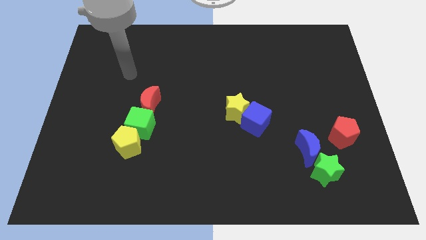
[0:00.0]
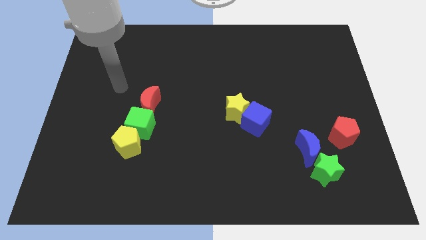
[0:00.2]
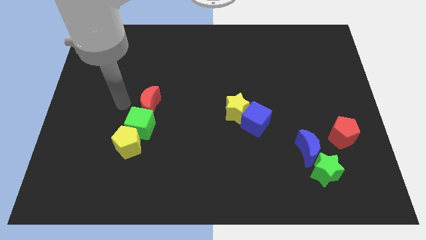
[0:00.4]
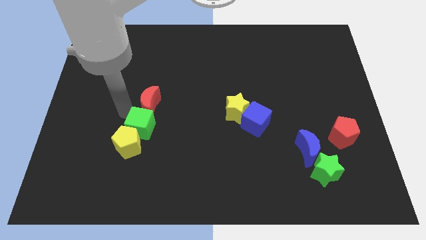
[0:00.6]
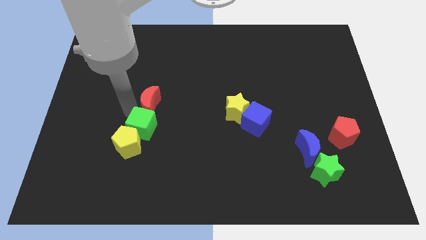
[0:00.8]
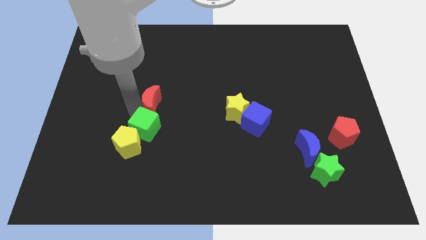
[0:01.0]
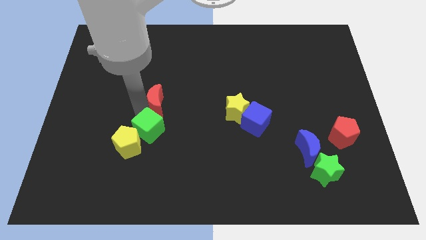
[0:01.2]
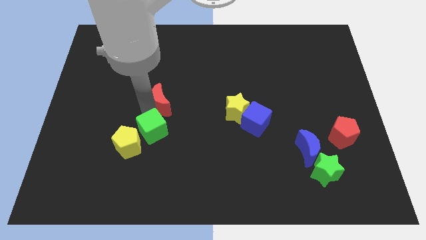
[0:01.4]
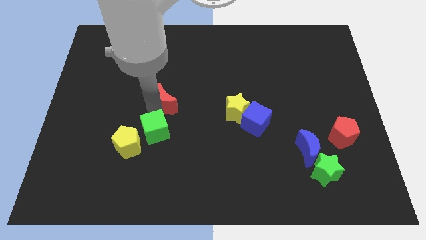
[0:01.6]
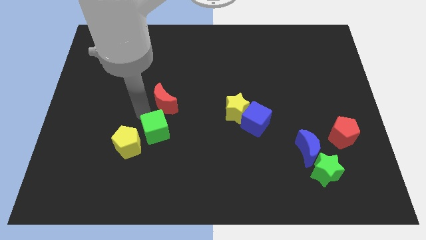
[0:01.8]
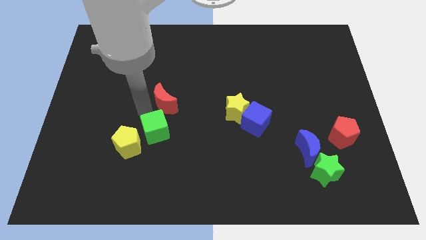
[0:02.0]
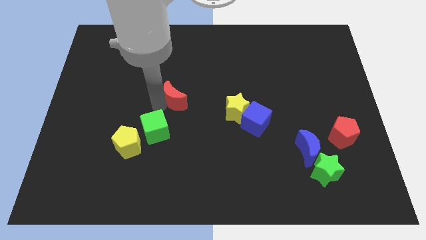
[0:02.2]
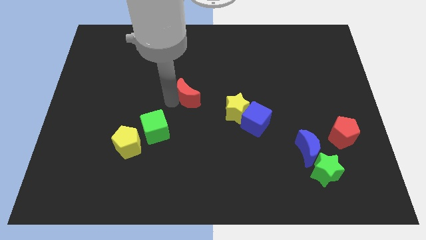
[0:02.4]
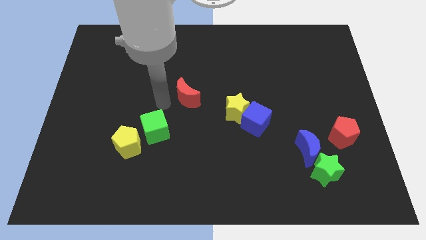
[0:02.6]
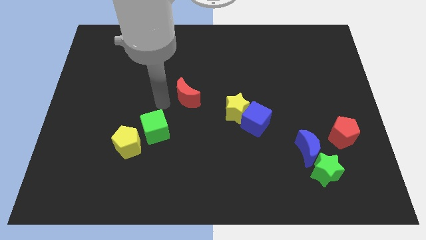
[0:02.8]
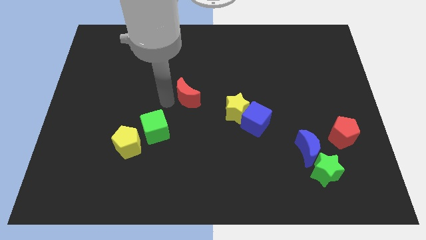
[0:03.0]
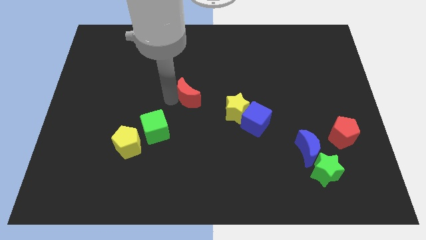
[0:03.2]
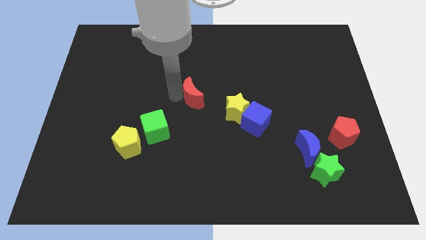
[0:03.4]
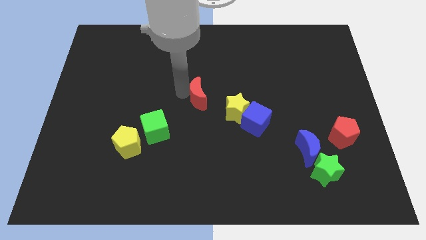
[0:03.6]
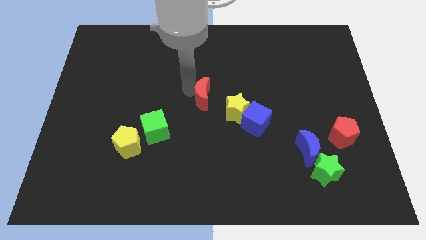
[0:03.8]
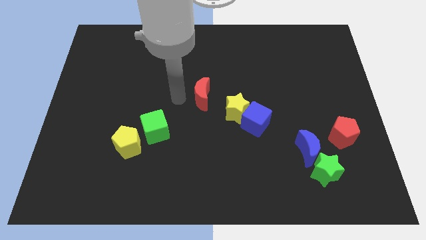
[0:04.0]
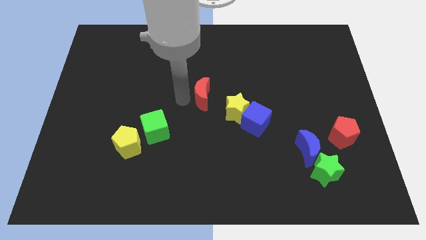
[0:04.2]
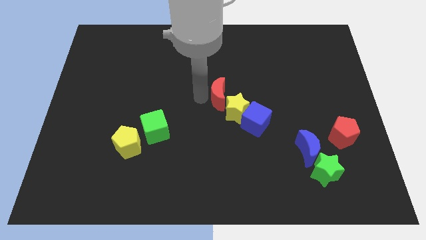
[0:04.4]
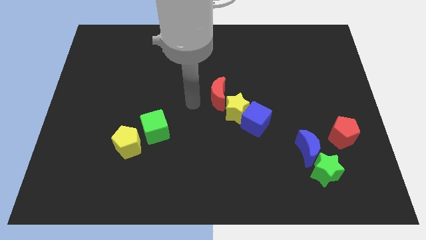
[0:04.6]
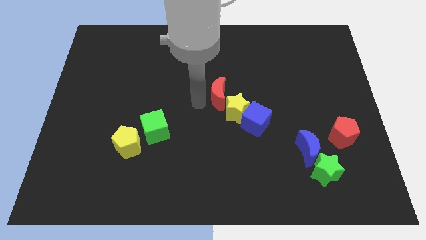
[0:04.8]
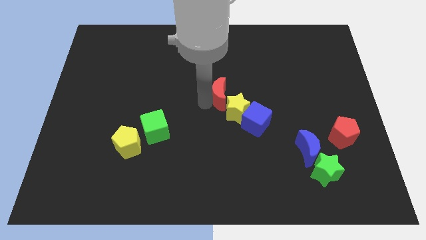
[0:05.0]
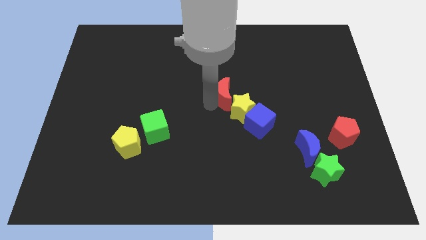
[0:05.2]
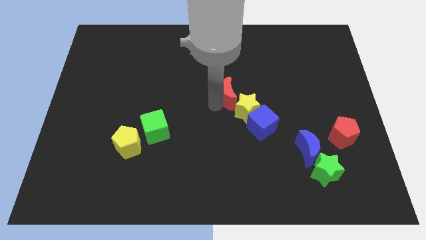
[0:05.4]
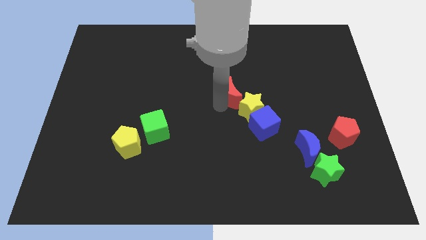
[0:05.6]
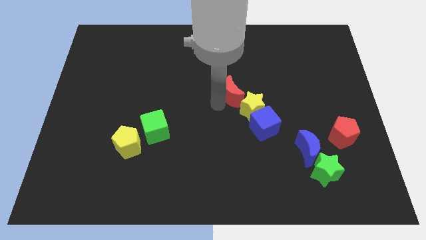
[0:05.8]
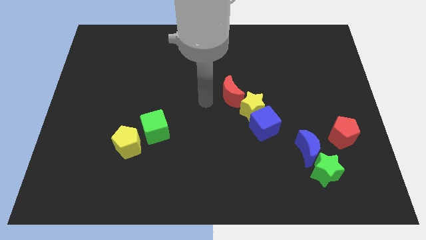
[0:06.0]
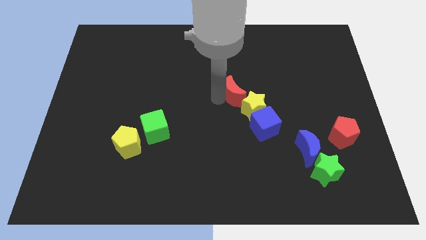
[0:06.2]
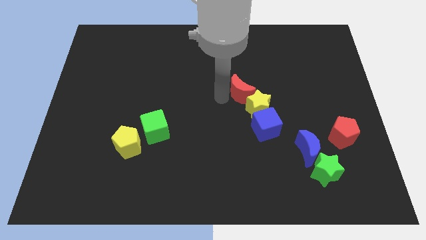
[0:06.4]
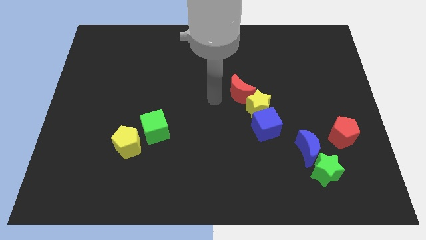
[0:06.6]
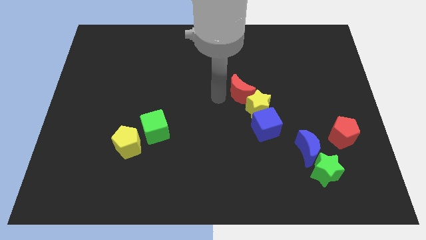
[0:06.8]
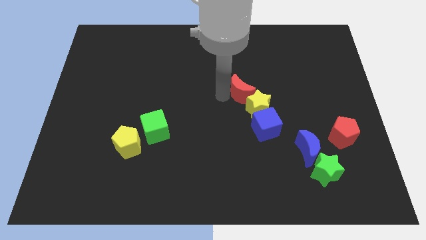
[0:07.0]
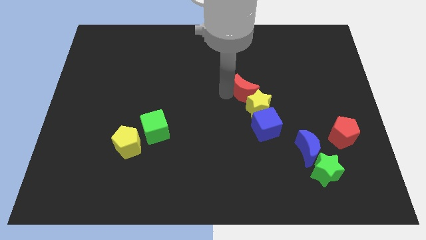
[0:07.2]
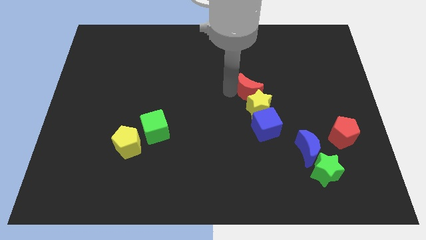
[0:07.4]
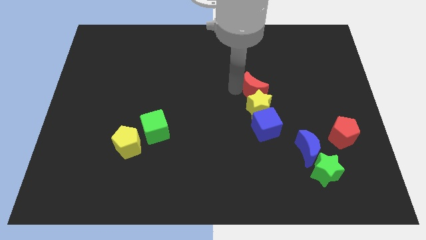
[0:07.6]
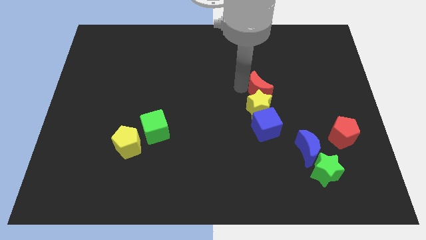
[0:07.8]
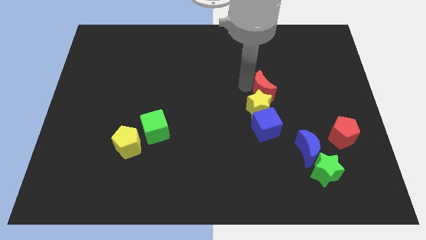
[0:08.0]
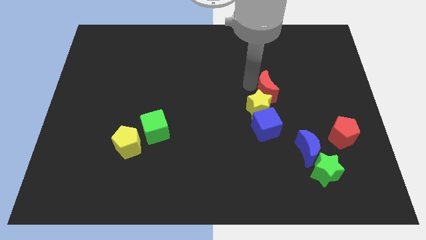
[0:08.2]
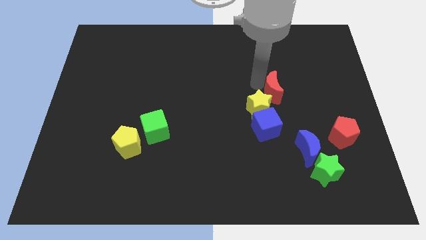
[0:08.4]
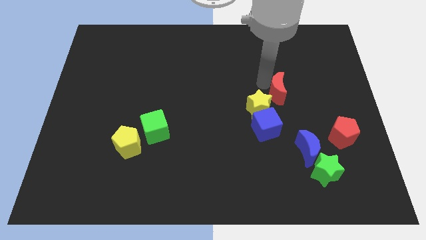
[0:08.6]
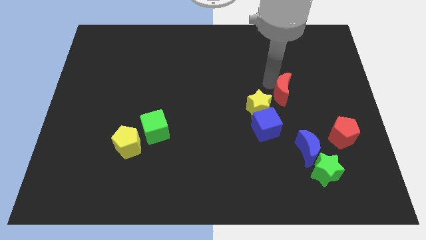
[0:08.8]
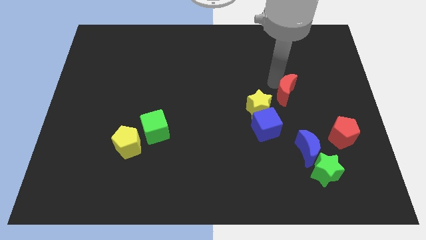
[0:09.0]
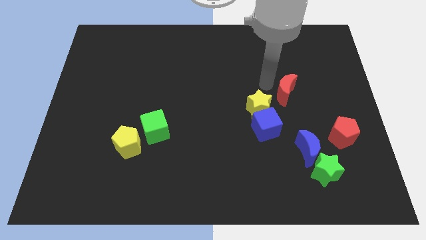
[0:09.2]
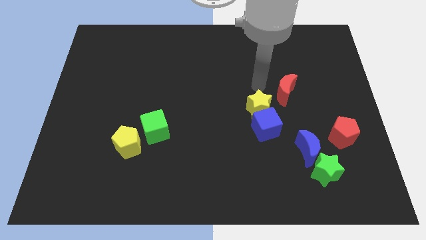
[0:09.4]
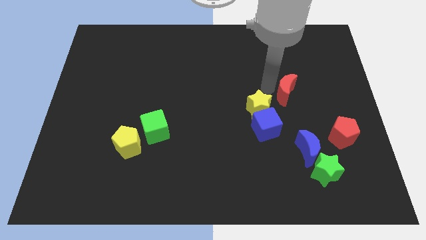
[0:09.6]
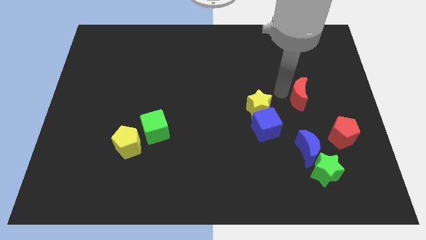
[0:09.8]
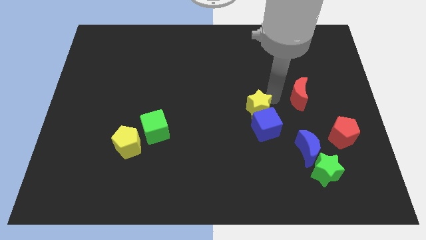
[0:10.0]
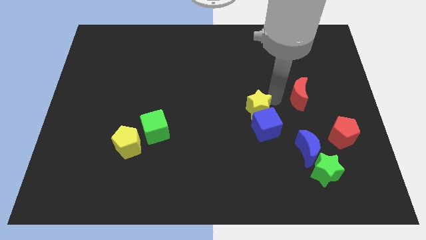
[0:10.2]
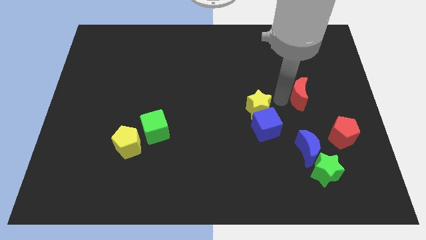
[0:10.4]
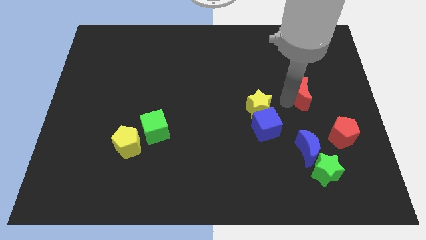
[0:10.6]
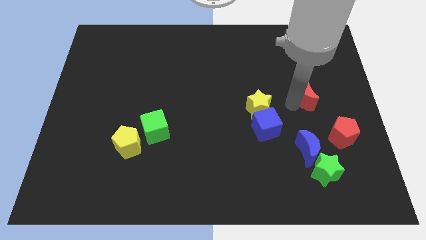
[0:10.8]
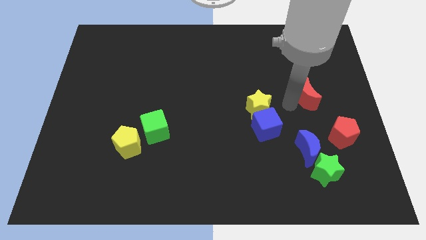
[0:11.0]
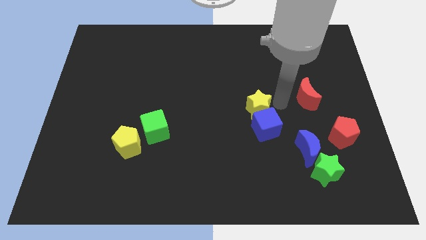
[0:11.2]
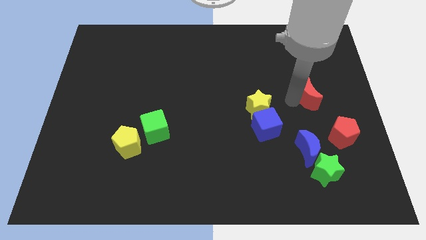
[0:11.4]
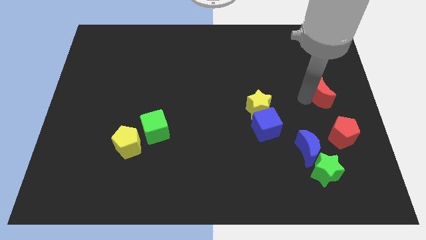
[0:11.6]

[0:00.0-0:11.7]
move the red moon to the right side of the board
